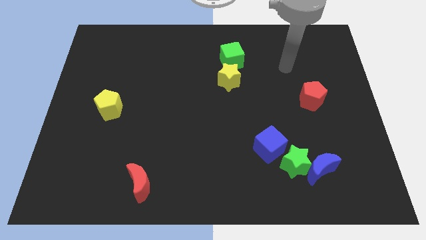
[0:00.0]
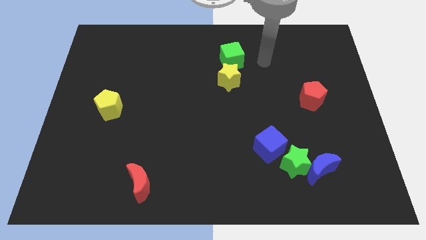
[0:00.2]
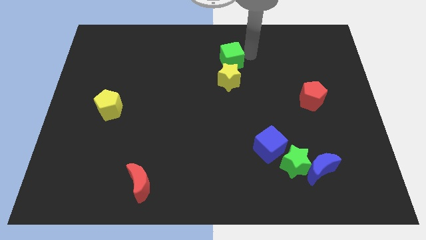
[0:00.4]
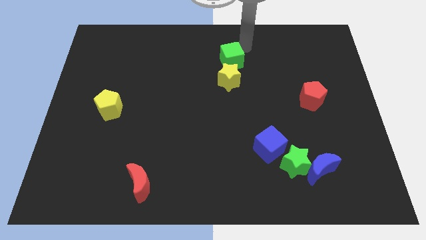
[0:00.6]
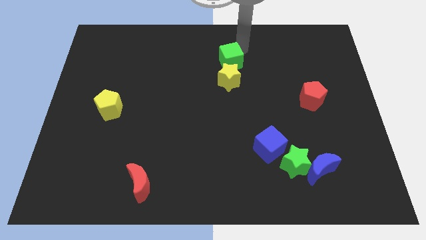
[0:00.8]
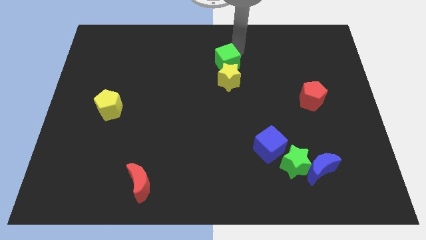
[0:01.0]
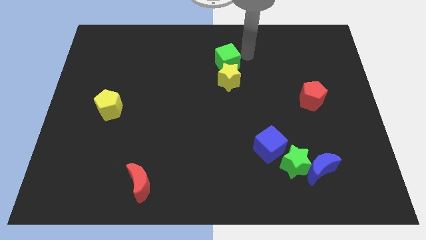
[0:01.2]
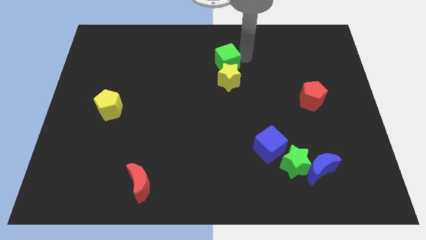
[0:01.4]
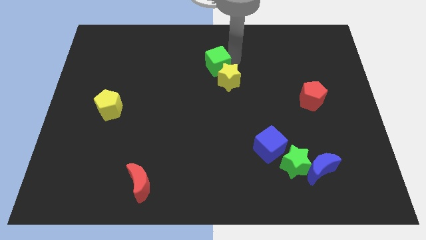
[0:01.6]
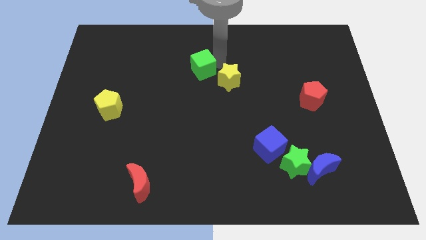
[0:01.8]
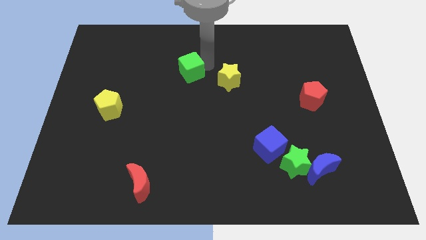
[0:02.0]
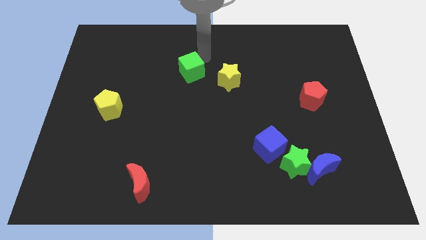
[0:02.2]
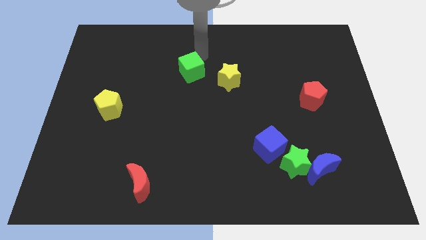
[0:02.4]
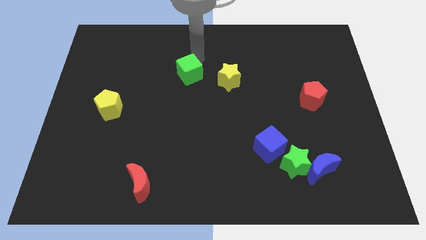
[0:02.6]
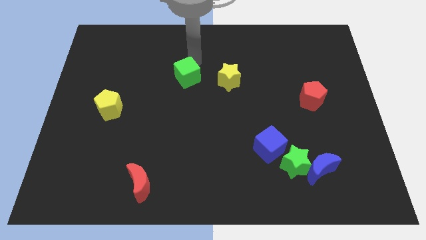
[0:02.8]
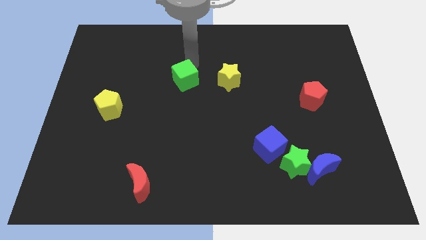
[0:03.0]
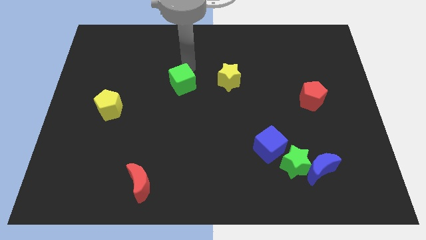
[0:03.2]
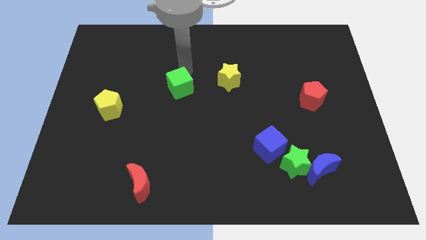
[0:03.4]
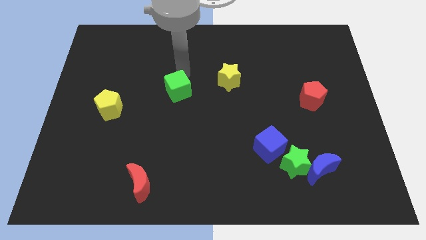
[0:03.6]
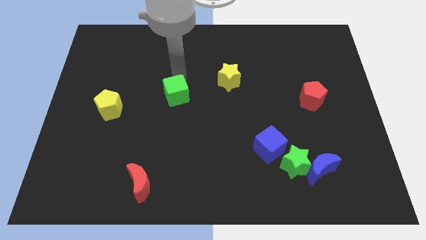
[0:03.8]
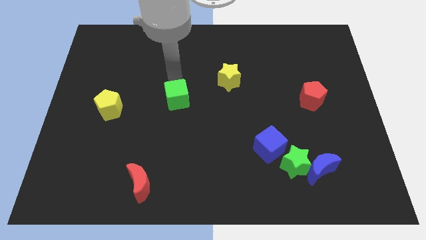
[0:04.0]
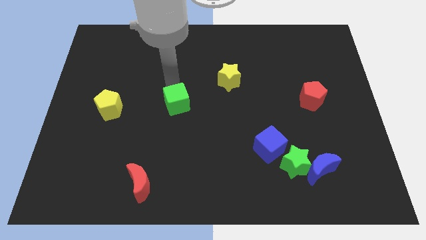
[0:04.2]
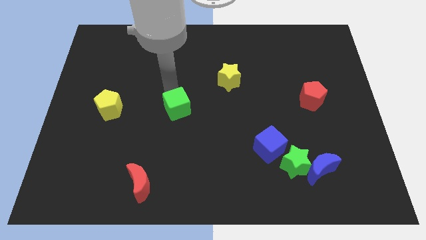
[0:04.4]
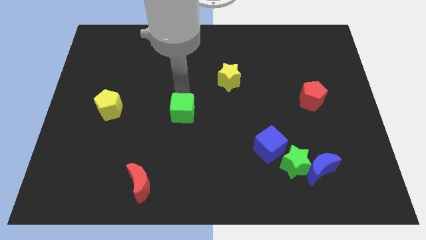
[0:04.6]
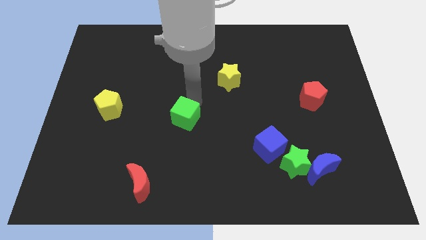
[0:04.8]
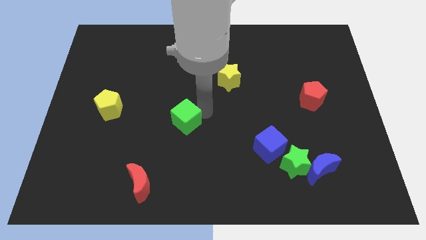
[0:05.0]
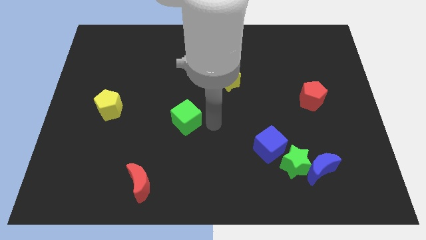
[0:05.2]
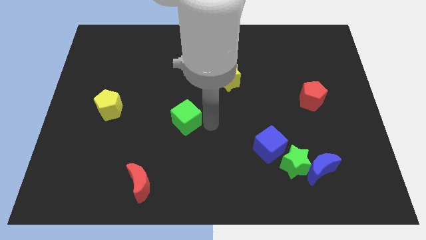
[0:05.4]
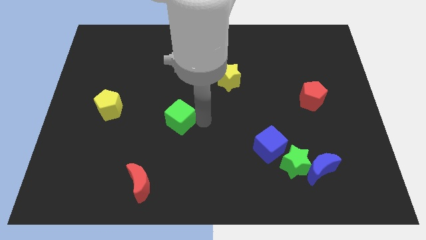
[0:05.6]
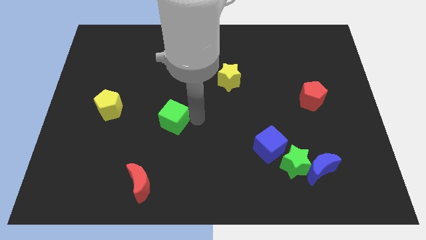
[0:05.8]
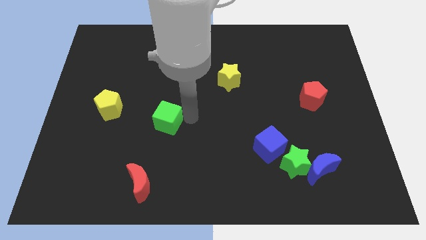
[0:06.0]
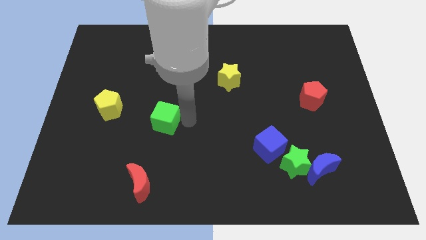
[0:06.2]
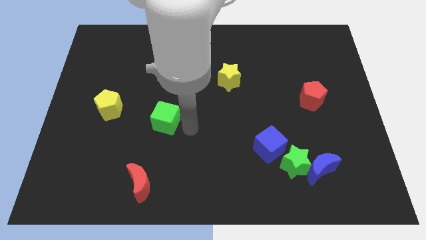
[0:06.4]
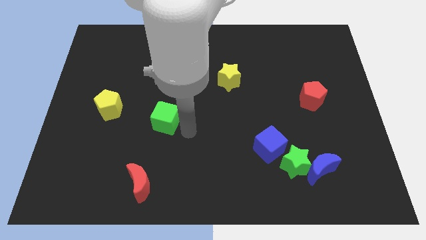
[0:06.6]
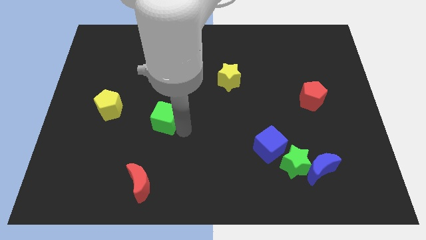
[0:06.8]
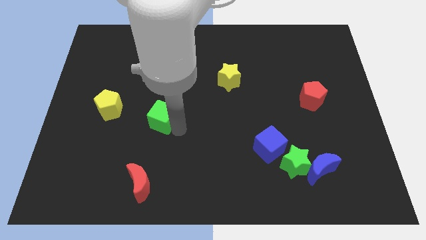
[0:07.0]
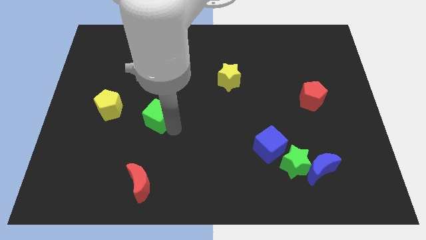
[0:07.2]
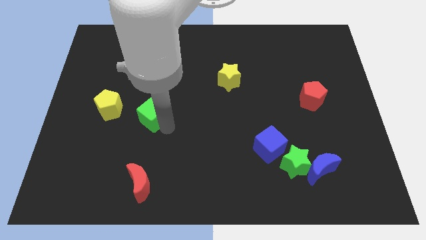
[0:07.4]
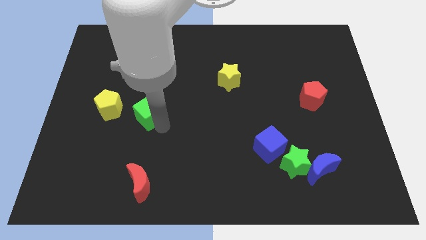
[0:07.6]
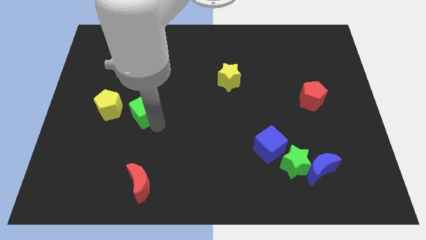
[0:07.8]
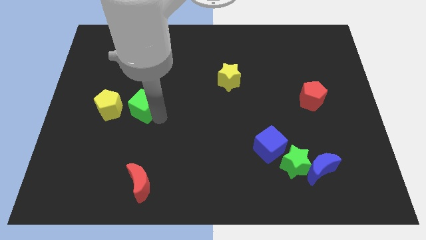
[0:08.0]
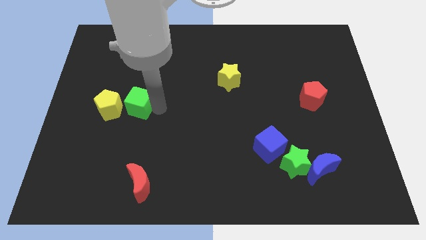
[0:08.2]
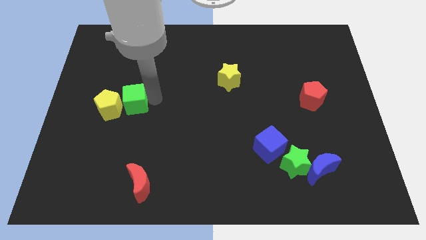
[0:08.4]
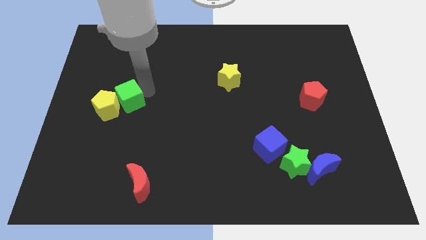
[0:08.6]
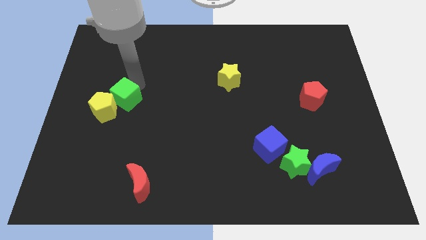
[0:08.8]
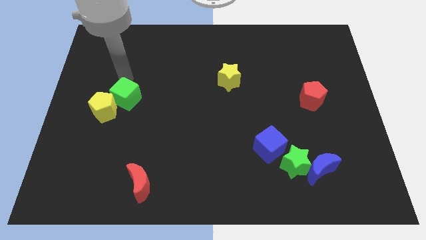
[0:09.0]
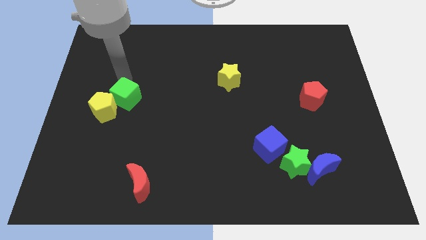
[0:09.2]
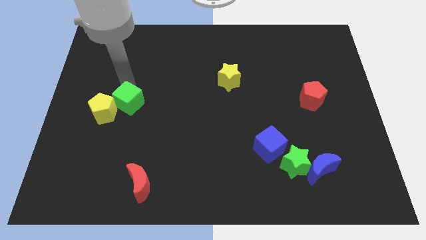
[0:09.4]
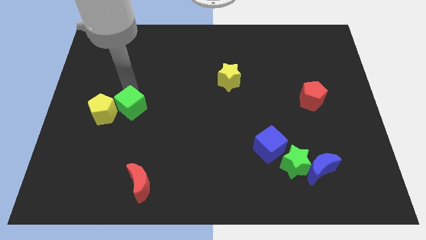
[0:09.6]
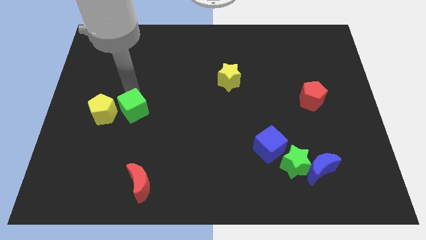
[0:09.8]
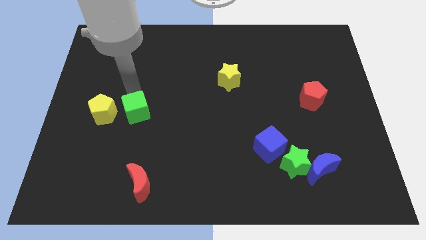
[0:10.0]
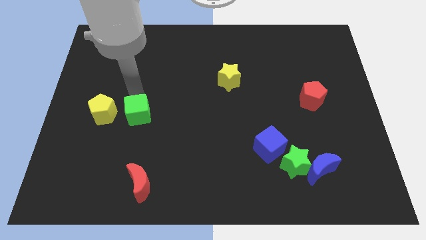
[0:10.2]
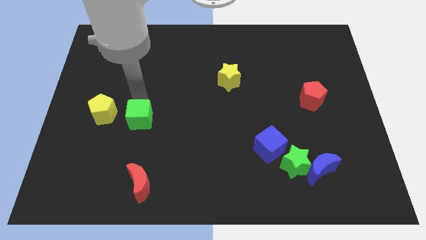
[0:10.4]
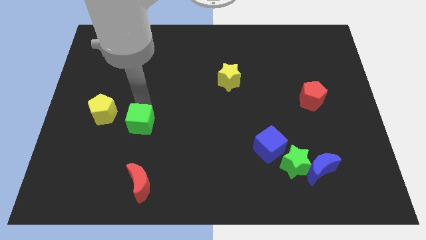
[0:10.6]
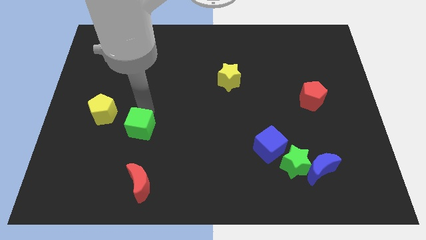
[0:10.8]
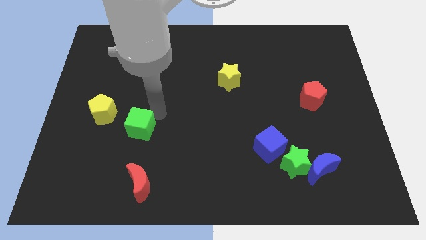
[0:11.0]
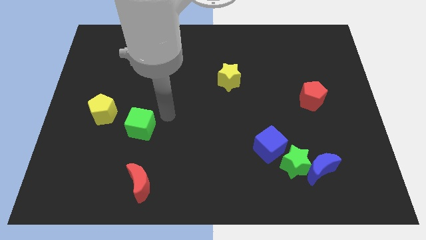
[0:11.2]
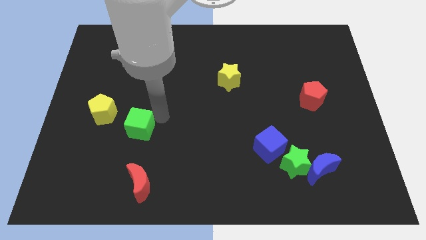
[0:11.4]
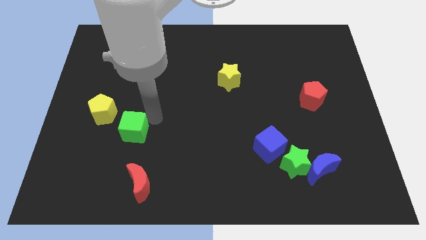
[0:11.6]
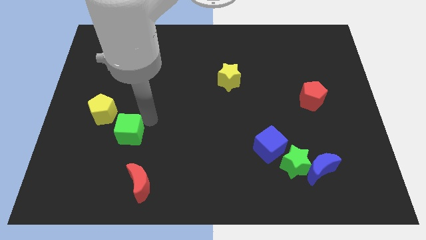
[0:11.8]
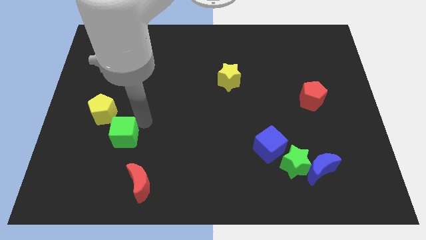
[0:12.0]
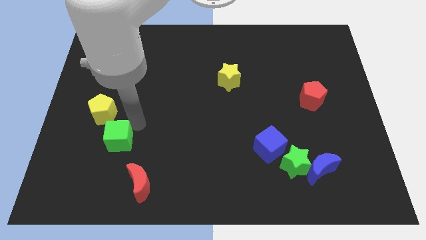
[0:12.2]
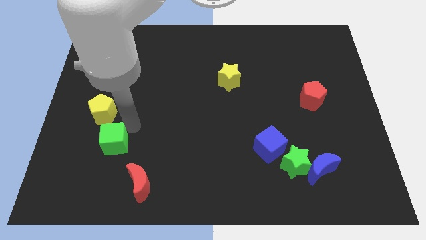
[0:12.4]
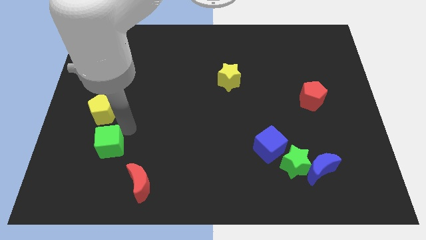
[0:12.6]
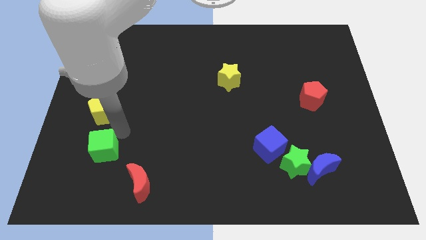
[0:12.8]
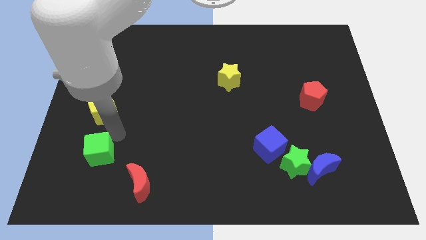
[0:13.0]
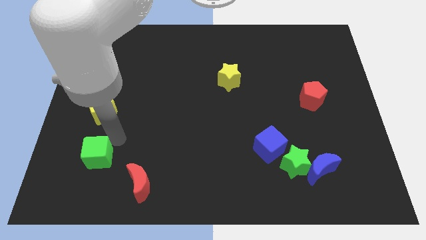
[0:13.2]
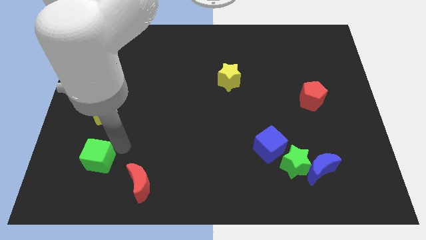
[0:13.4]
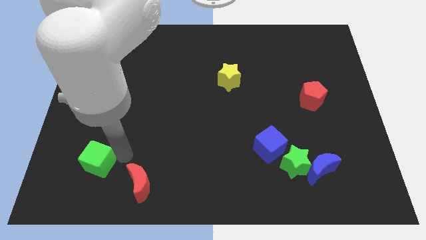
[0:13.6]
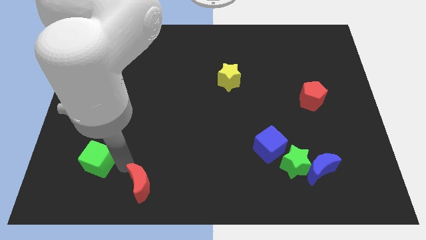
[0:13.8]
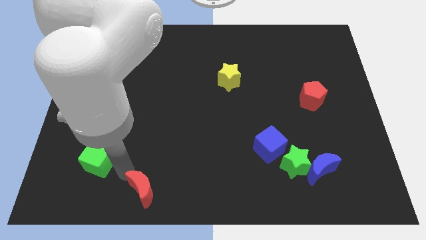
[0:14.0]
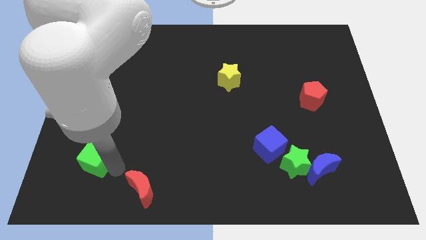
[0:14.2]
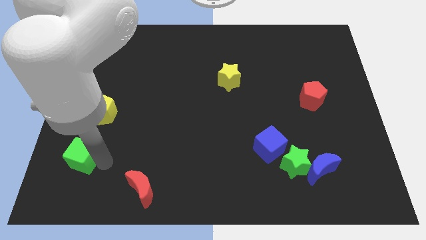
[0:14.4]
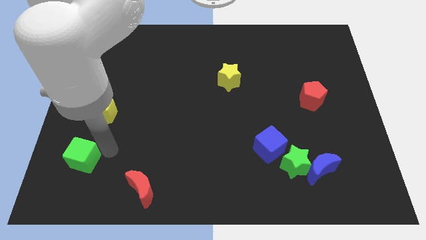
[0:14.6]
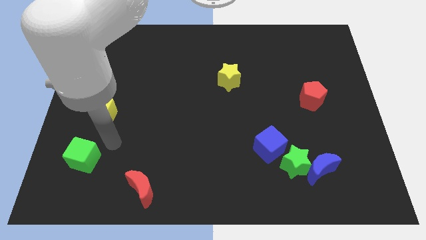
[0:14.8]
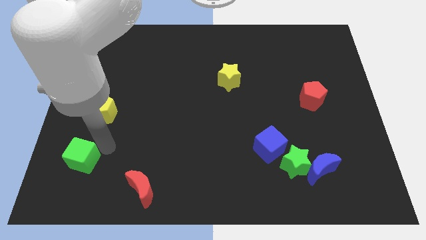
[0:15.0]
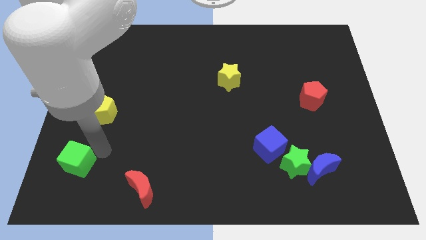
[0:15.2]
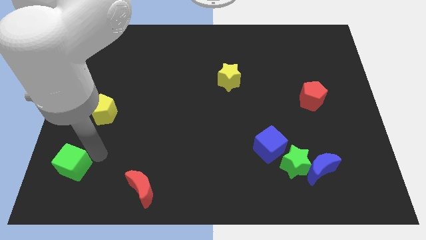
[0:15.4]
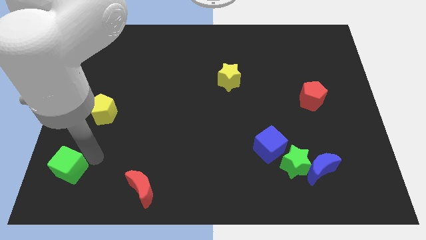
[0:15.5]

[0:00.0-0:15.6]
put the green cube to the bottom left of the board
